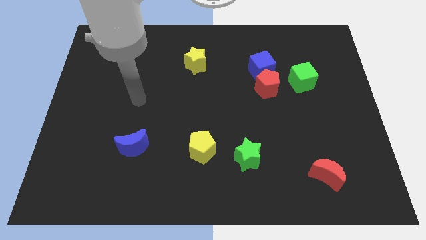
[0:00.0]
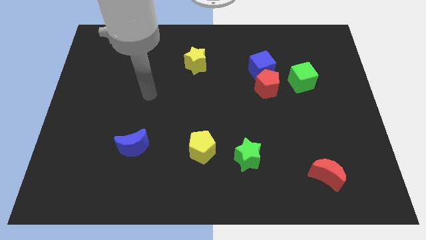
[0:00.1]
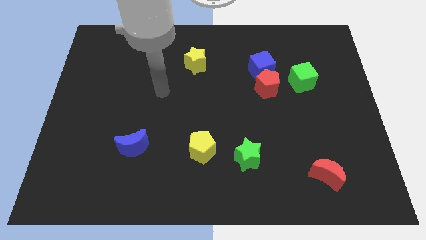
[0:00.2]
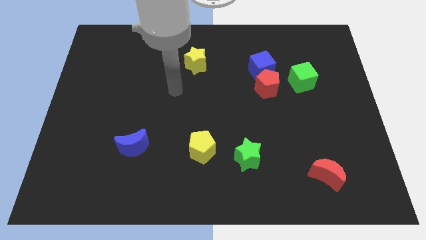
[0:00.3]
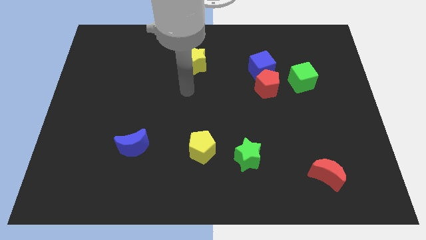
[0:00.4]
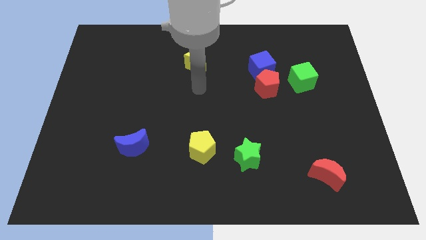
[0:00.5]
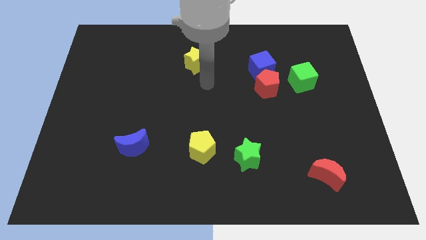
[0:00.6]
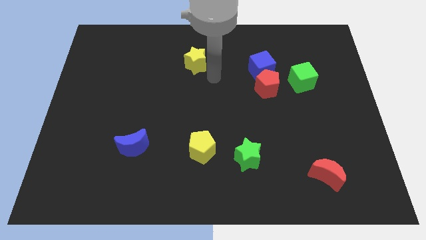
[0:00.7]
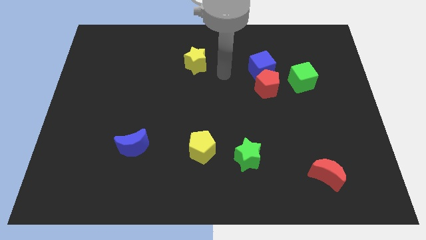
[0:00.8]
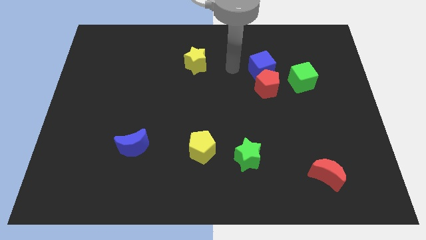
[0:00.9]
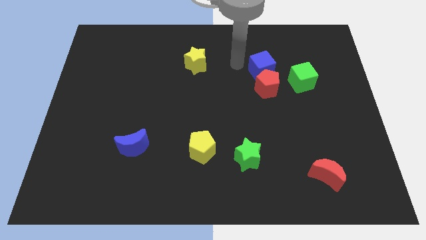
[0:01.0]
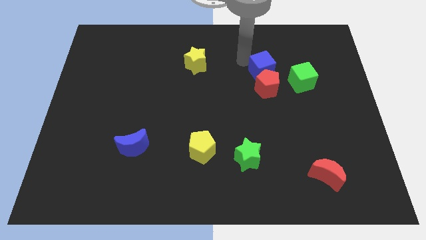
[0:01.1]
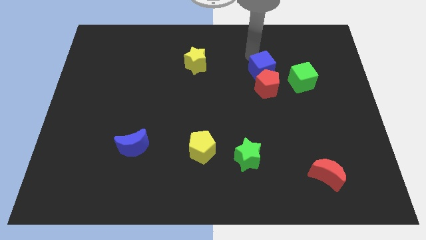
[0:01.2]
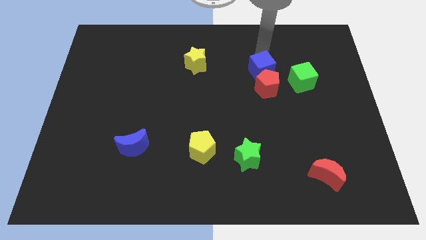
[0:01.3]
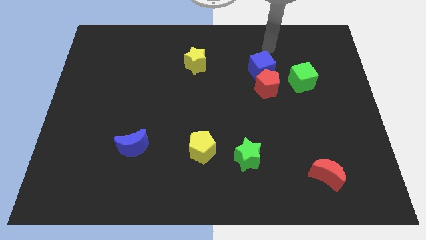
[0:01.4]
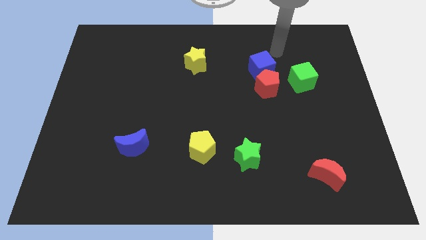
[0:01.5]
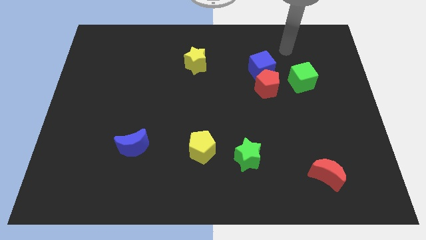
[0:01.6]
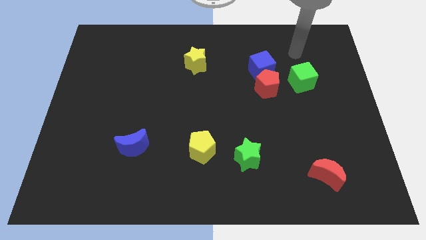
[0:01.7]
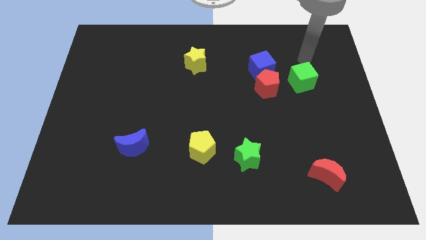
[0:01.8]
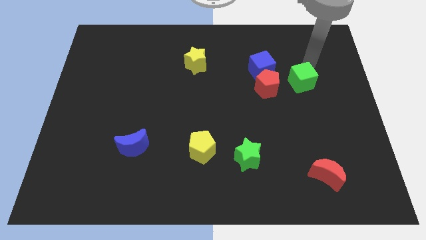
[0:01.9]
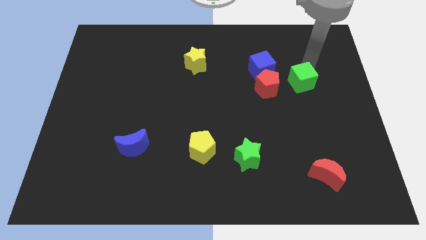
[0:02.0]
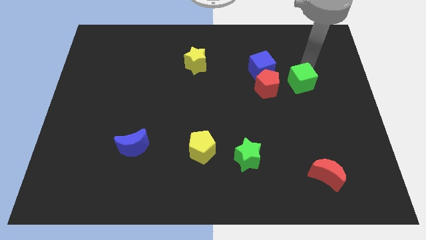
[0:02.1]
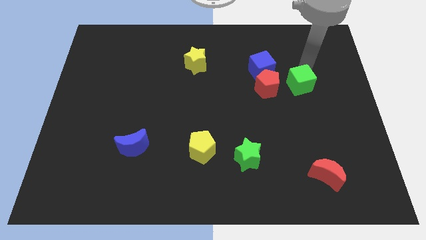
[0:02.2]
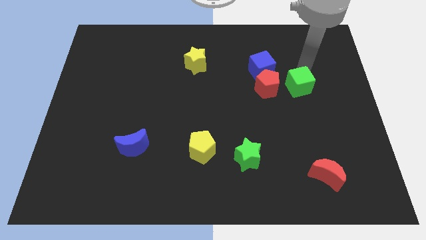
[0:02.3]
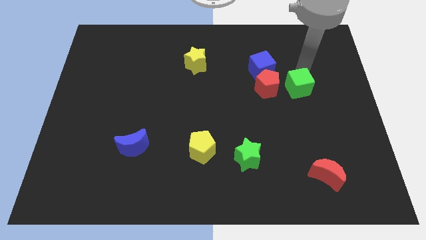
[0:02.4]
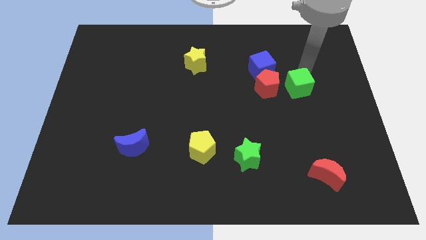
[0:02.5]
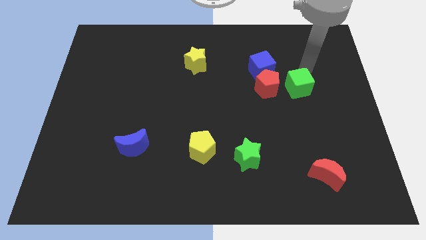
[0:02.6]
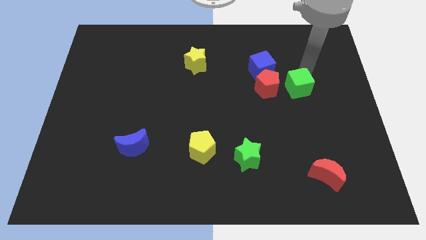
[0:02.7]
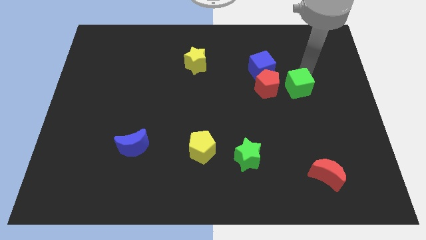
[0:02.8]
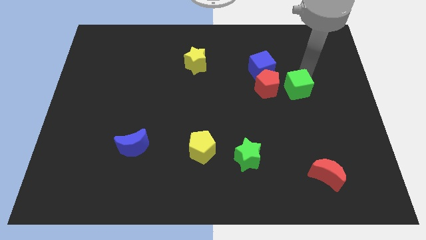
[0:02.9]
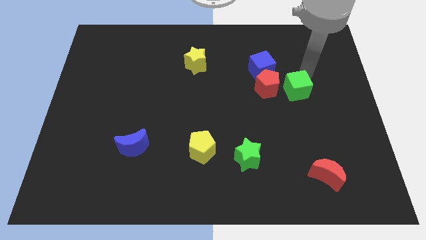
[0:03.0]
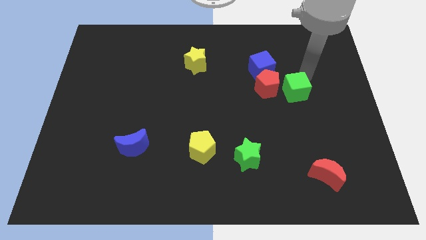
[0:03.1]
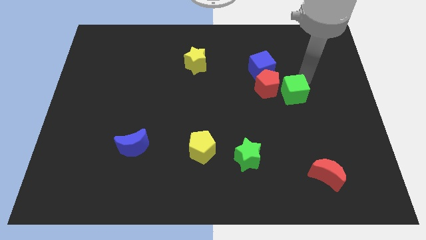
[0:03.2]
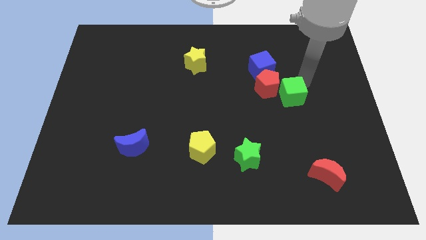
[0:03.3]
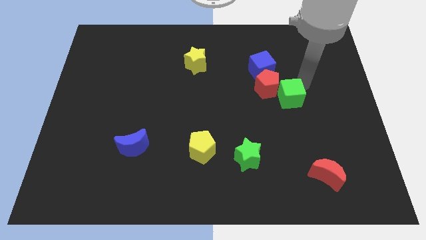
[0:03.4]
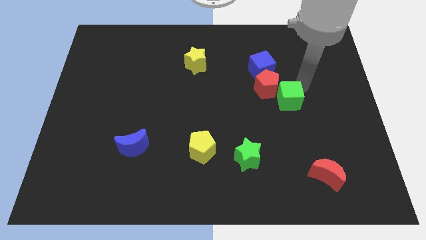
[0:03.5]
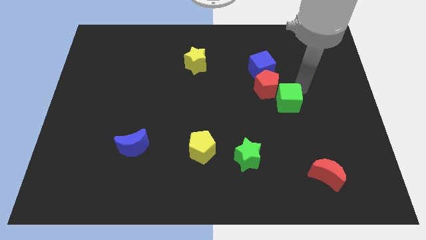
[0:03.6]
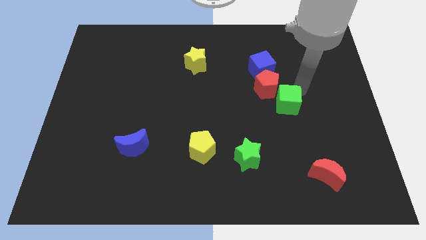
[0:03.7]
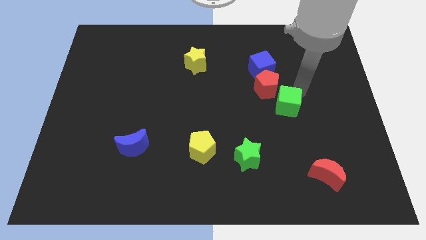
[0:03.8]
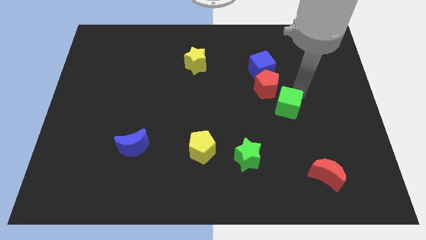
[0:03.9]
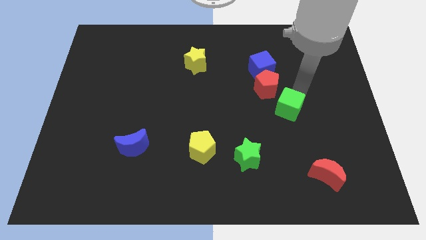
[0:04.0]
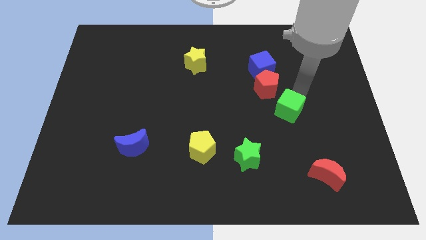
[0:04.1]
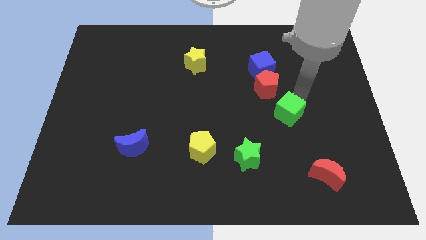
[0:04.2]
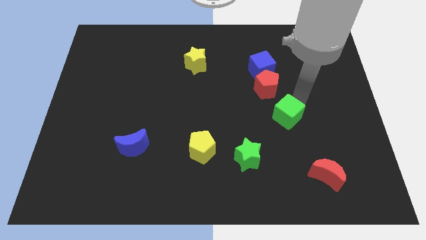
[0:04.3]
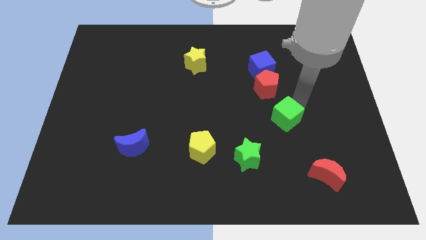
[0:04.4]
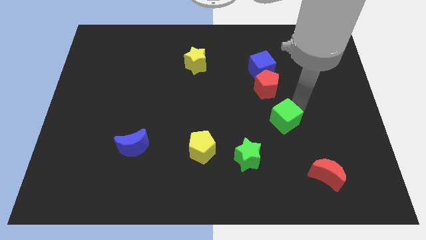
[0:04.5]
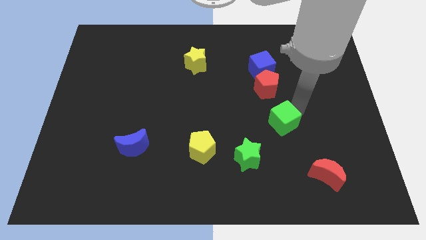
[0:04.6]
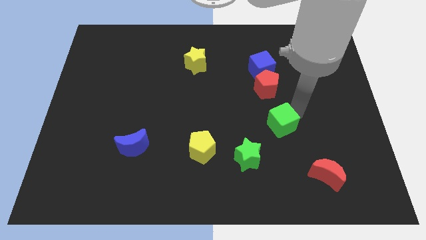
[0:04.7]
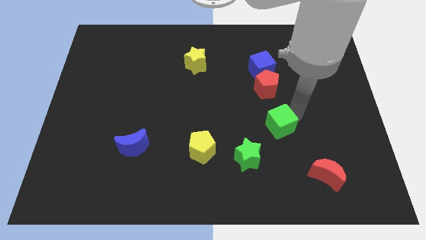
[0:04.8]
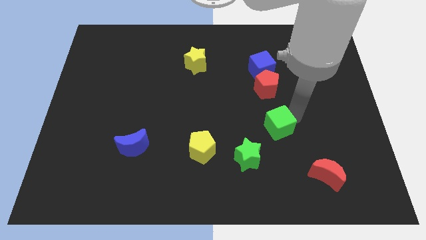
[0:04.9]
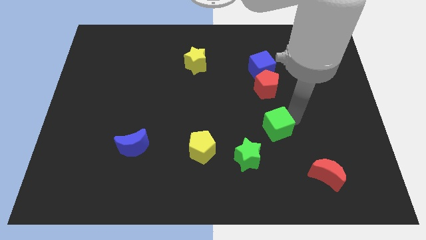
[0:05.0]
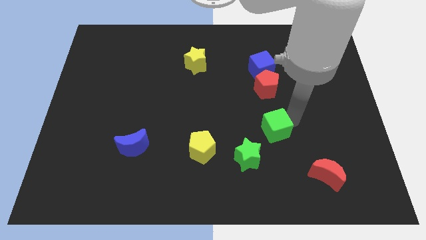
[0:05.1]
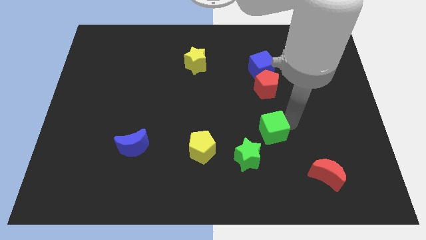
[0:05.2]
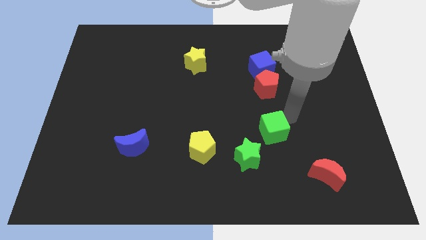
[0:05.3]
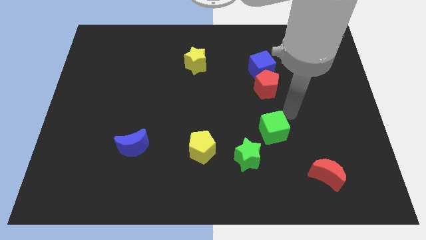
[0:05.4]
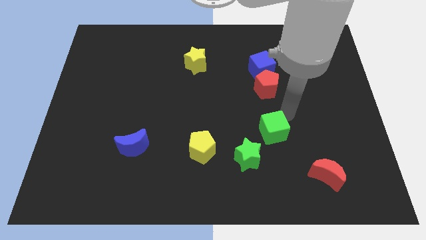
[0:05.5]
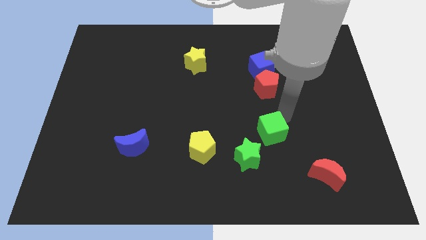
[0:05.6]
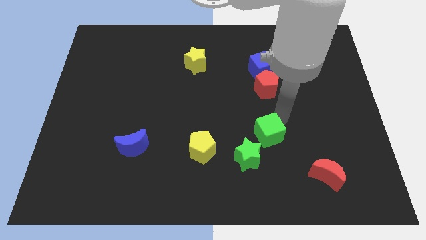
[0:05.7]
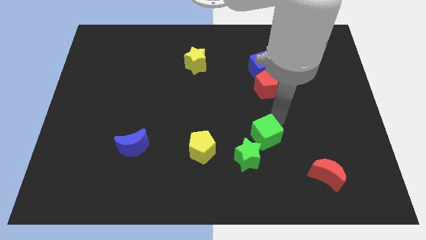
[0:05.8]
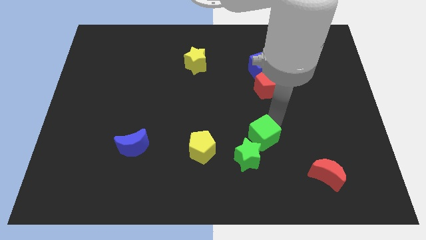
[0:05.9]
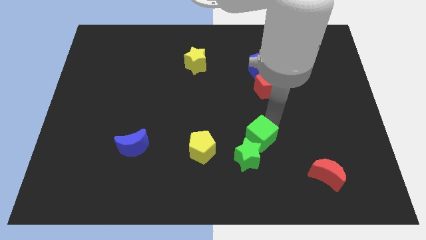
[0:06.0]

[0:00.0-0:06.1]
move the green cube to the green star

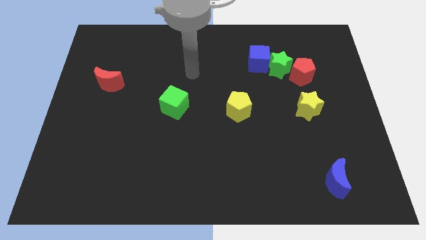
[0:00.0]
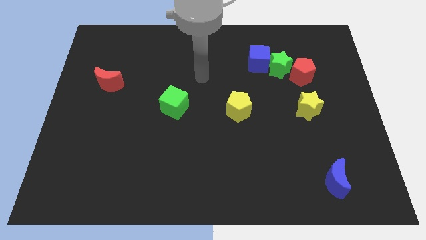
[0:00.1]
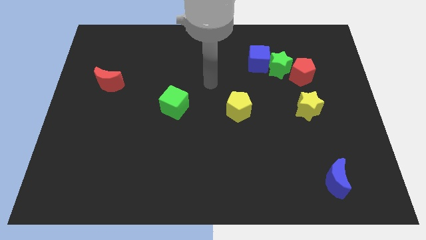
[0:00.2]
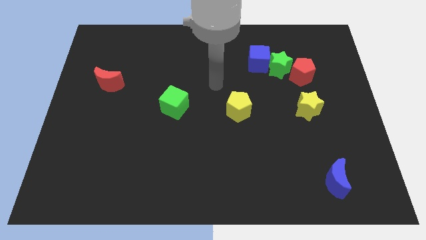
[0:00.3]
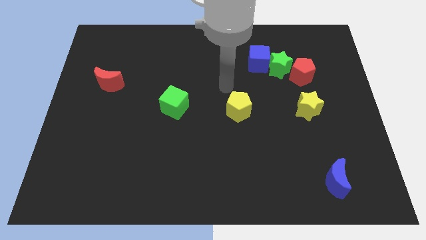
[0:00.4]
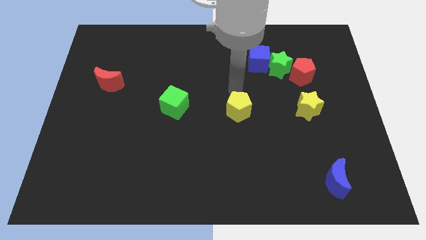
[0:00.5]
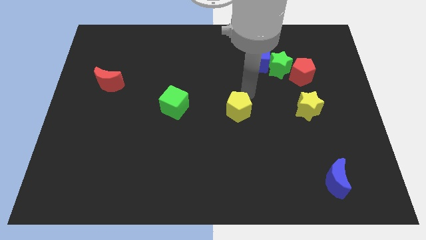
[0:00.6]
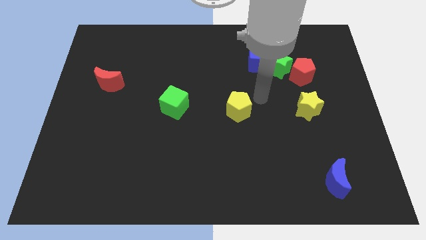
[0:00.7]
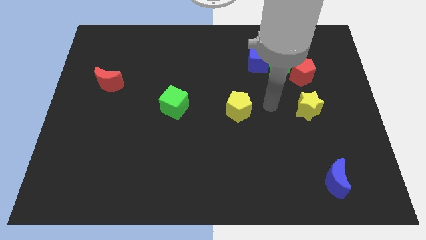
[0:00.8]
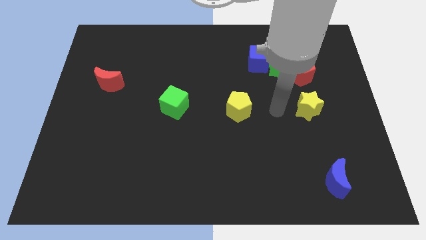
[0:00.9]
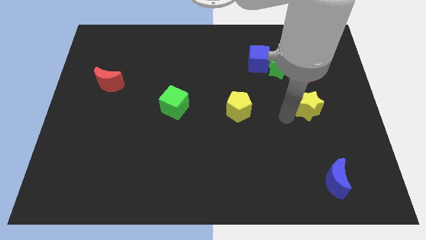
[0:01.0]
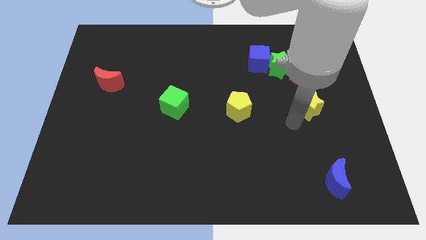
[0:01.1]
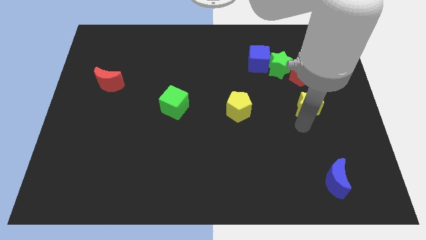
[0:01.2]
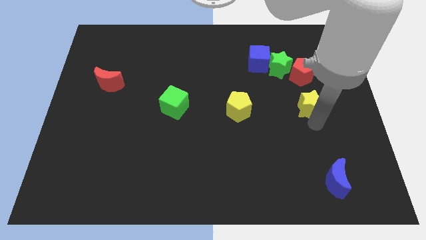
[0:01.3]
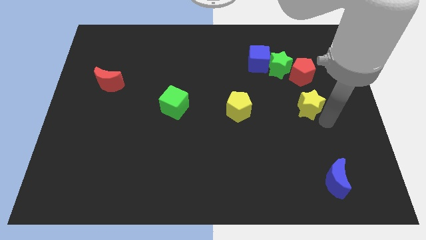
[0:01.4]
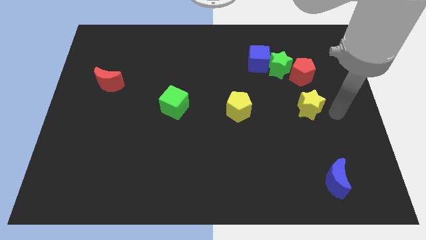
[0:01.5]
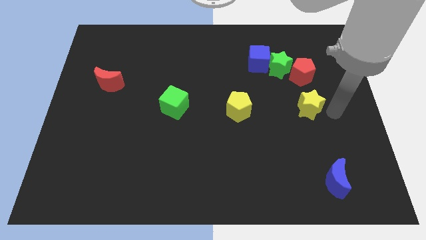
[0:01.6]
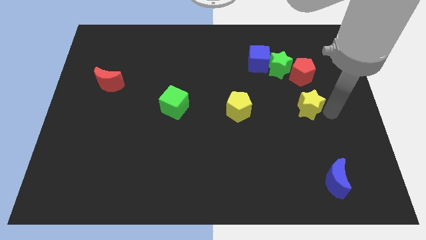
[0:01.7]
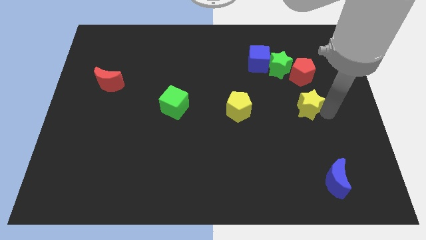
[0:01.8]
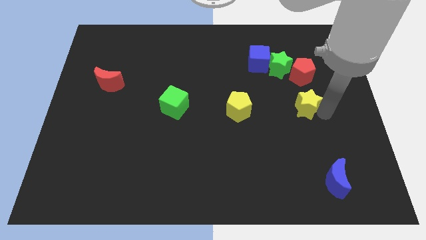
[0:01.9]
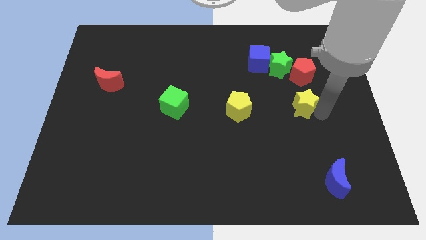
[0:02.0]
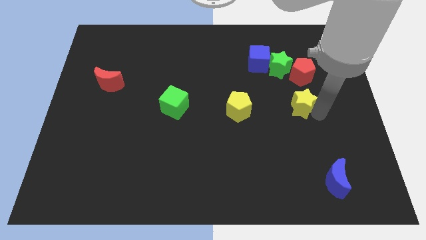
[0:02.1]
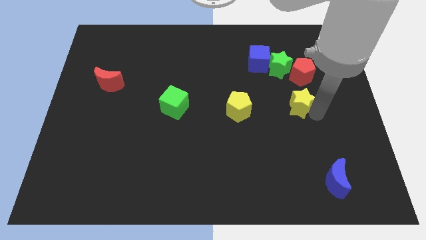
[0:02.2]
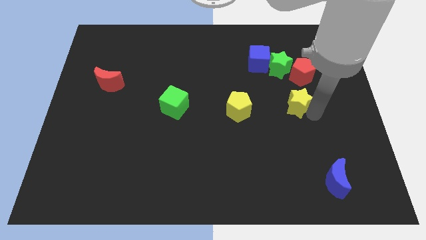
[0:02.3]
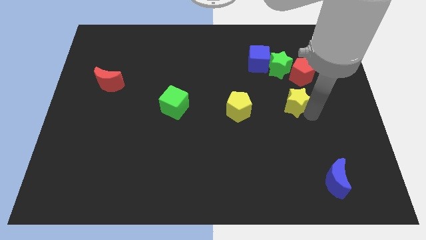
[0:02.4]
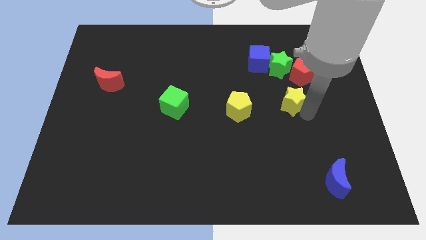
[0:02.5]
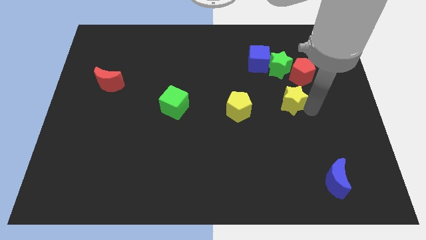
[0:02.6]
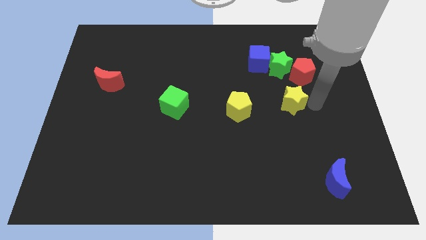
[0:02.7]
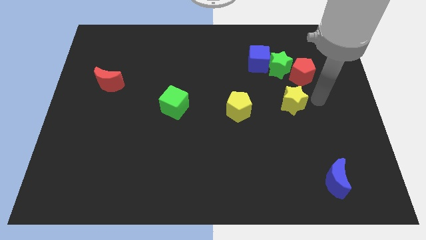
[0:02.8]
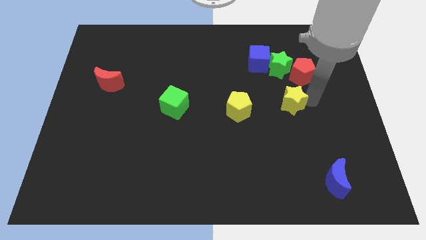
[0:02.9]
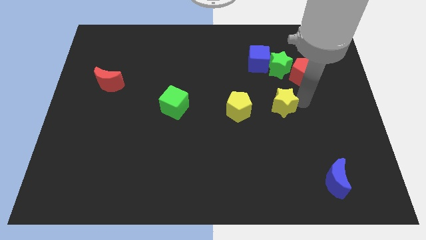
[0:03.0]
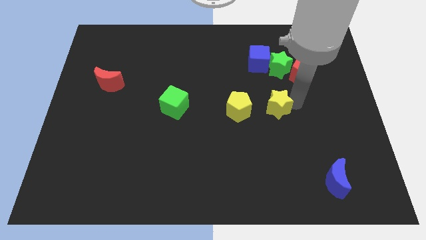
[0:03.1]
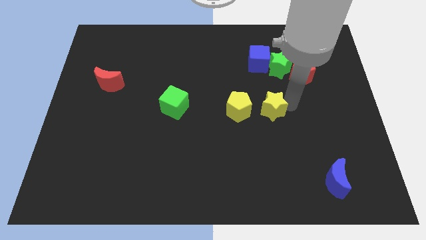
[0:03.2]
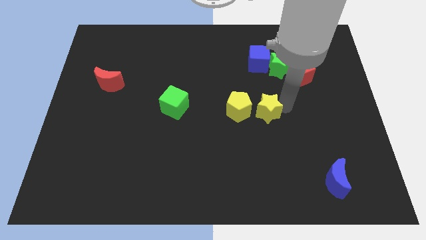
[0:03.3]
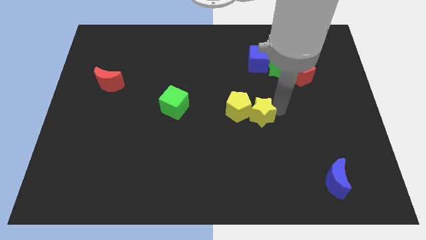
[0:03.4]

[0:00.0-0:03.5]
move the yellow star towards the yellow pentagon
